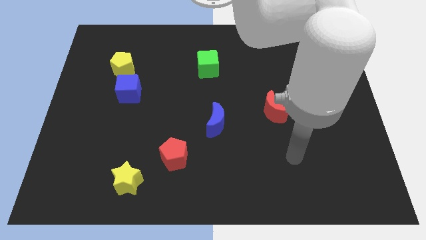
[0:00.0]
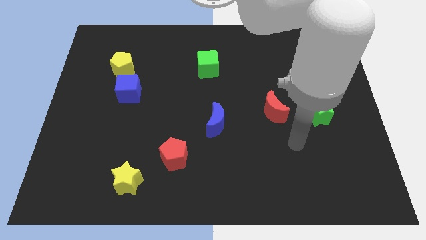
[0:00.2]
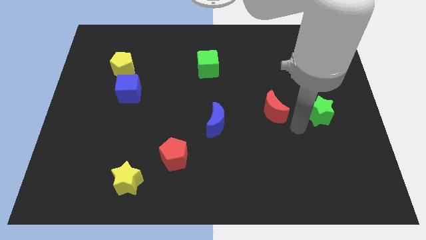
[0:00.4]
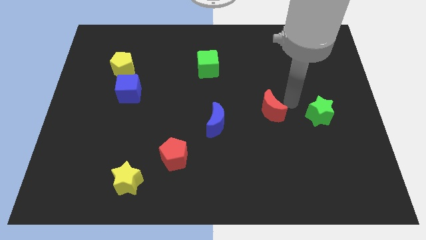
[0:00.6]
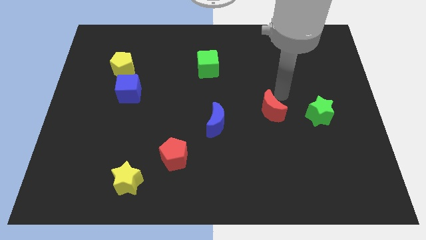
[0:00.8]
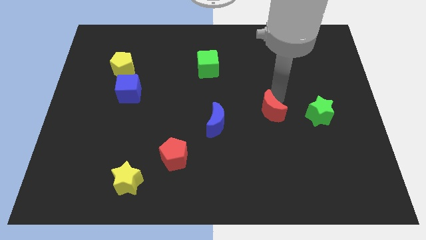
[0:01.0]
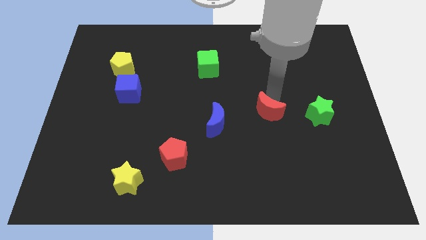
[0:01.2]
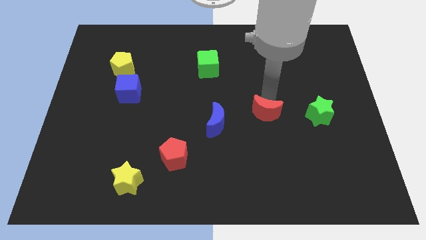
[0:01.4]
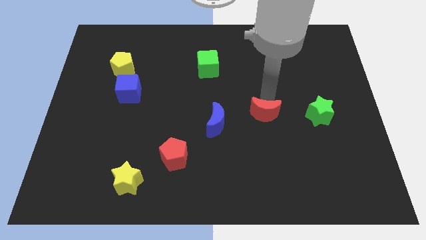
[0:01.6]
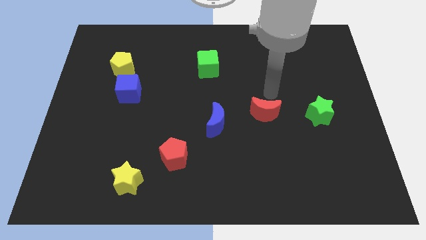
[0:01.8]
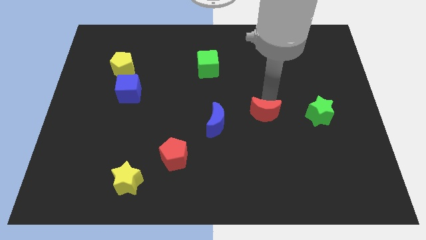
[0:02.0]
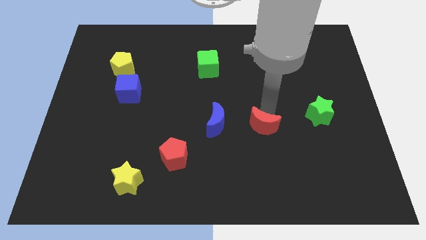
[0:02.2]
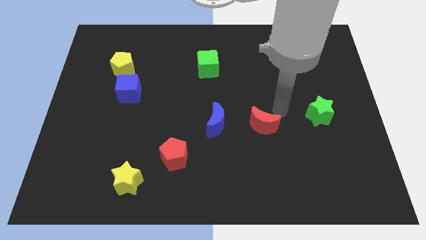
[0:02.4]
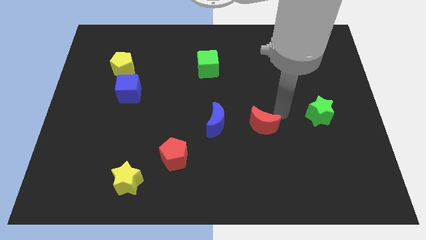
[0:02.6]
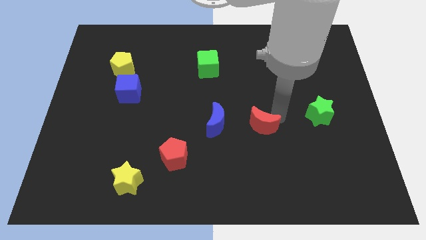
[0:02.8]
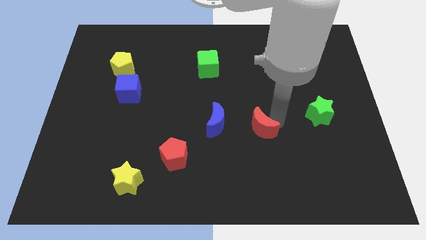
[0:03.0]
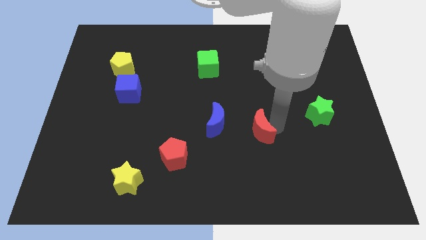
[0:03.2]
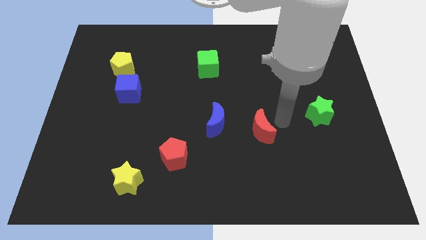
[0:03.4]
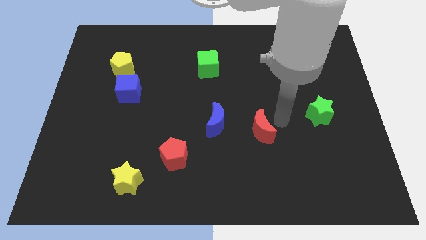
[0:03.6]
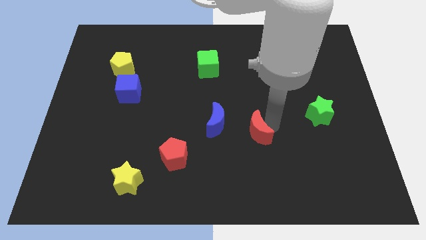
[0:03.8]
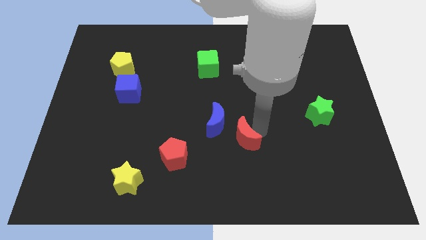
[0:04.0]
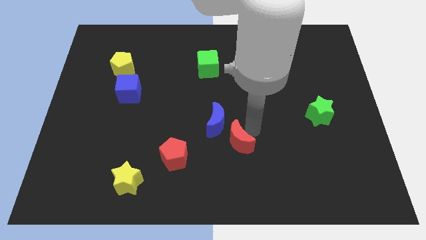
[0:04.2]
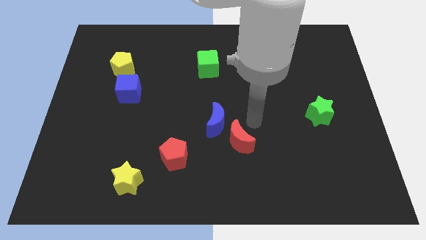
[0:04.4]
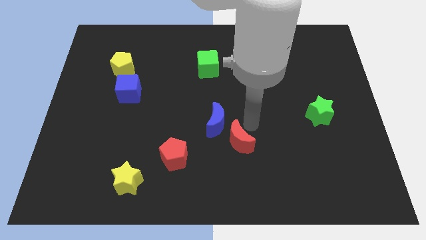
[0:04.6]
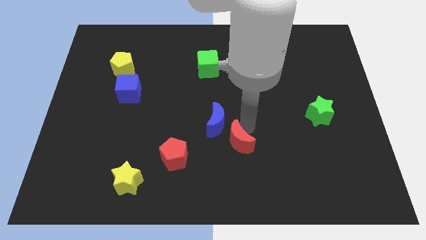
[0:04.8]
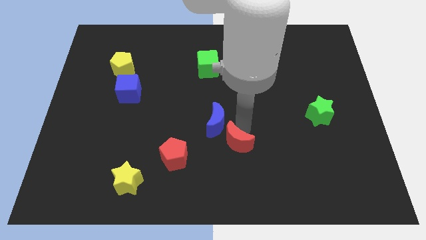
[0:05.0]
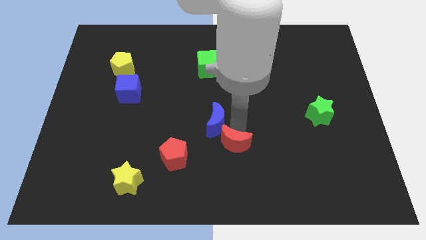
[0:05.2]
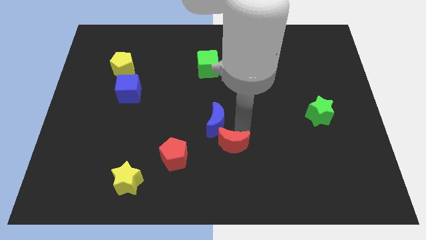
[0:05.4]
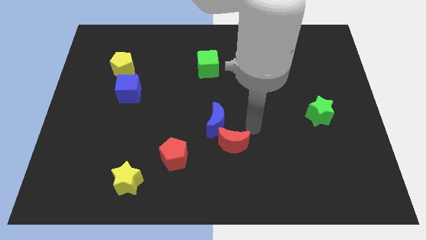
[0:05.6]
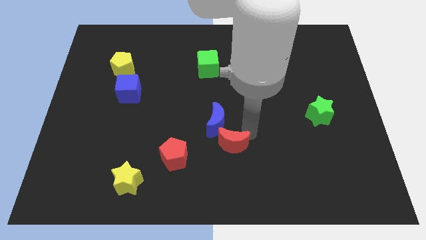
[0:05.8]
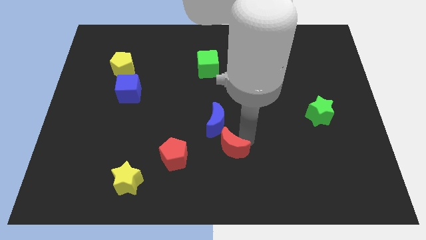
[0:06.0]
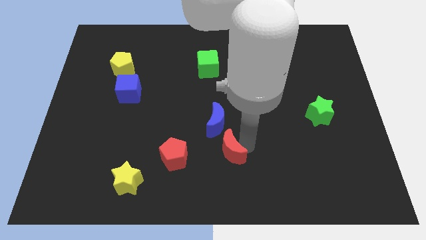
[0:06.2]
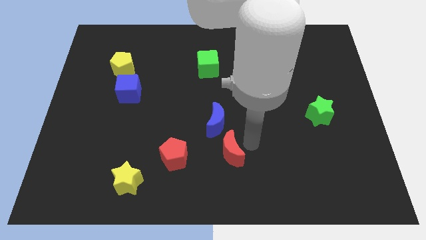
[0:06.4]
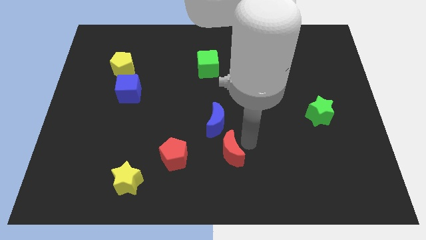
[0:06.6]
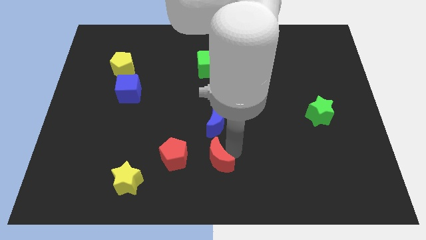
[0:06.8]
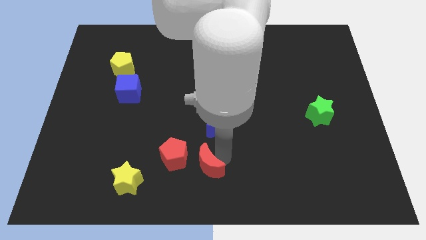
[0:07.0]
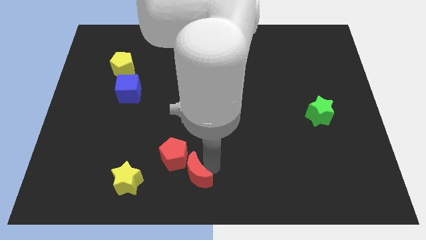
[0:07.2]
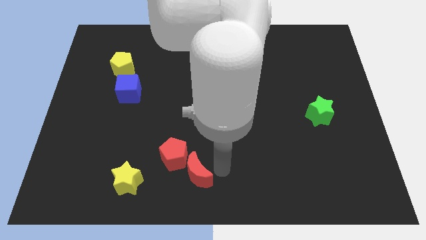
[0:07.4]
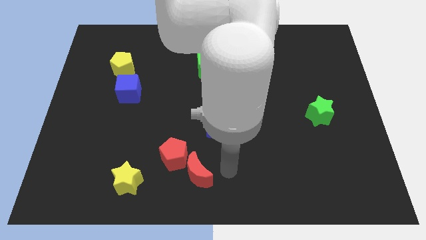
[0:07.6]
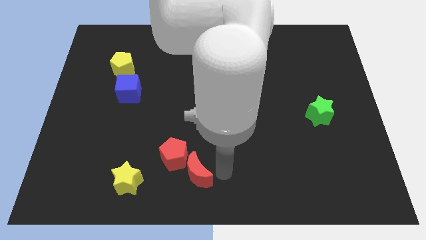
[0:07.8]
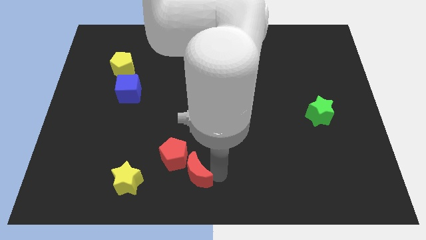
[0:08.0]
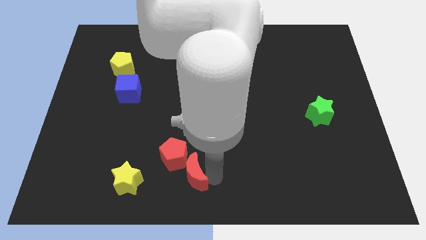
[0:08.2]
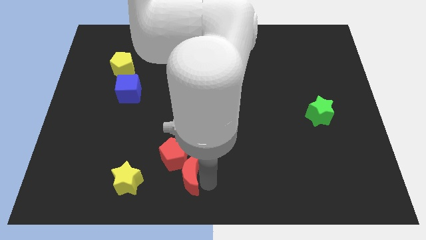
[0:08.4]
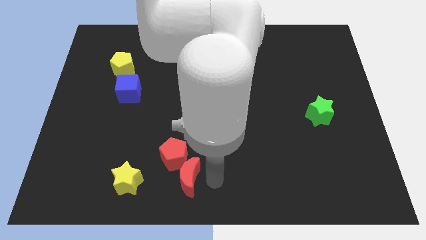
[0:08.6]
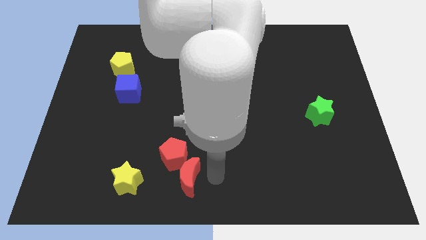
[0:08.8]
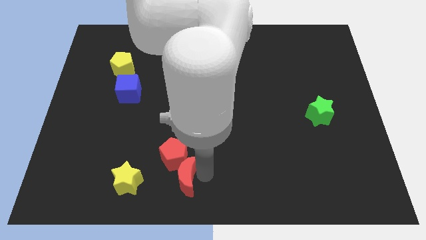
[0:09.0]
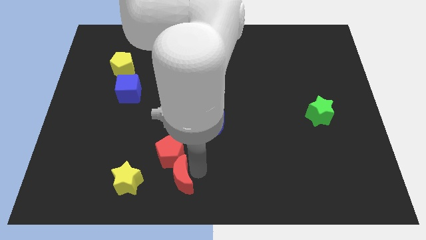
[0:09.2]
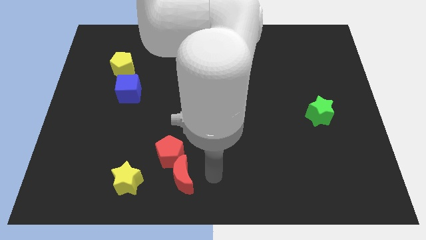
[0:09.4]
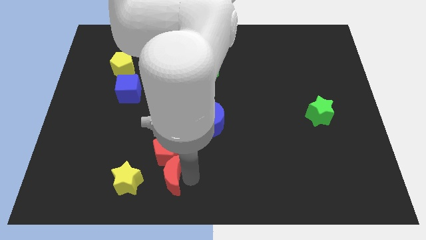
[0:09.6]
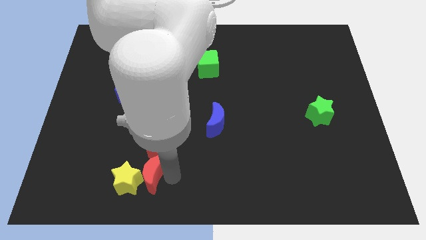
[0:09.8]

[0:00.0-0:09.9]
slide the red moon next to the yellow star

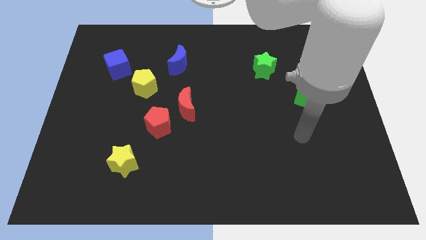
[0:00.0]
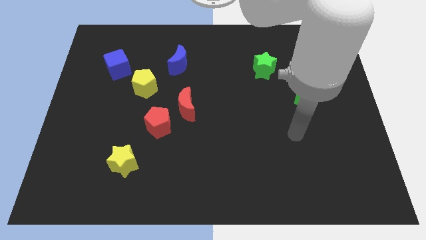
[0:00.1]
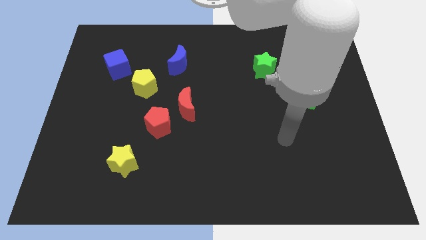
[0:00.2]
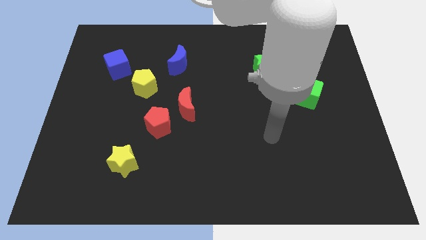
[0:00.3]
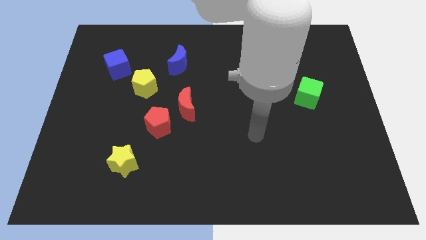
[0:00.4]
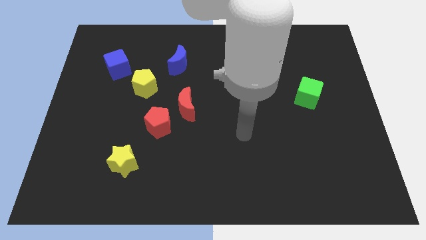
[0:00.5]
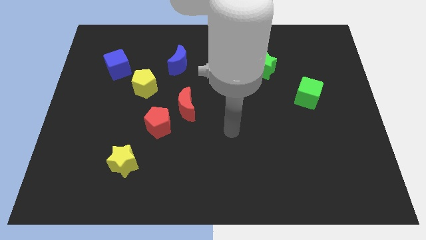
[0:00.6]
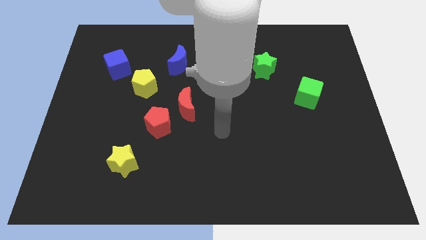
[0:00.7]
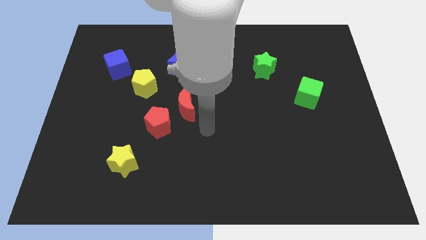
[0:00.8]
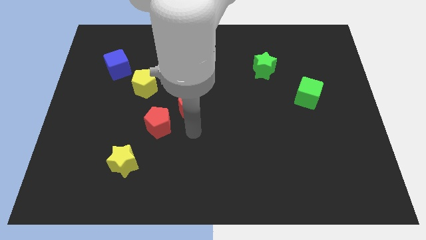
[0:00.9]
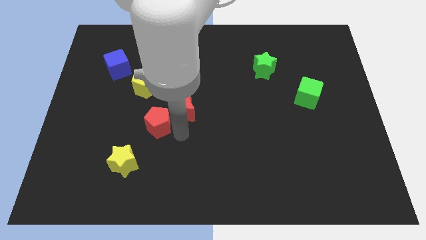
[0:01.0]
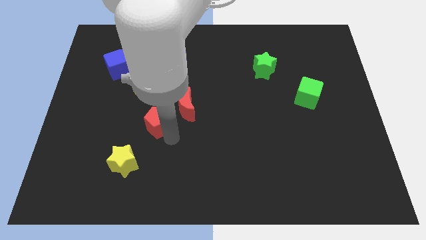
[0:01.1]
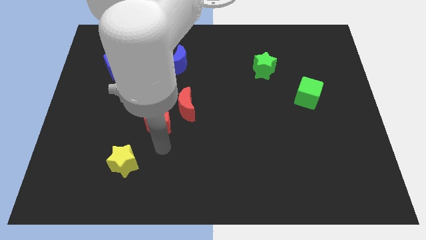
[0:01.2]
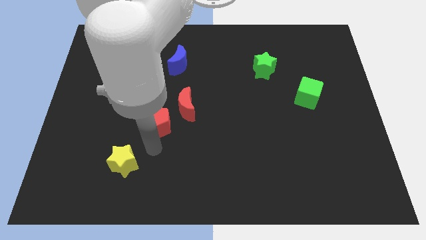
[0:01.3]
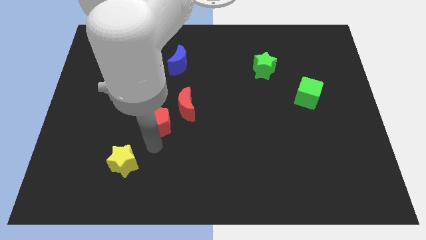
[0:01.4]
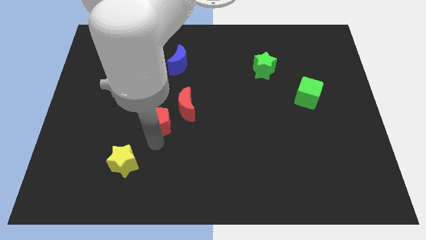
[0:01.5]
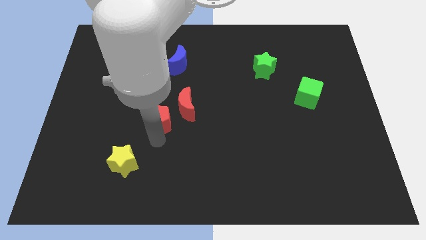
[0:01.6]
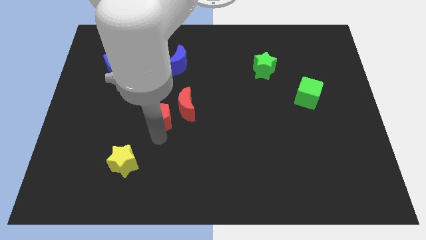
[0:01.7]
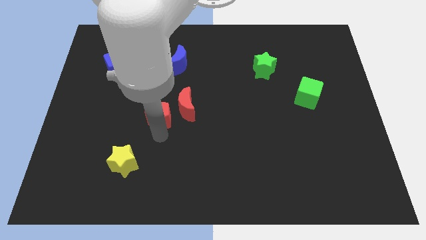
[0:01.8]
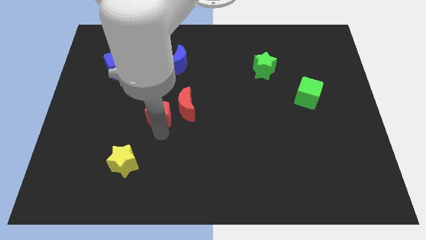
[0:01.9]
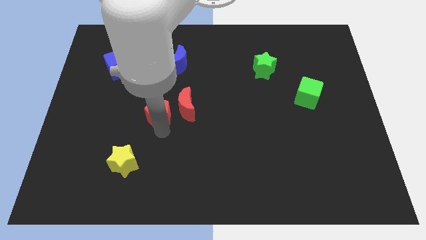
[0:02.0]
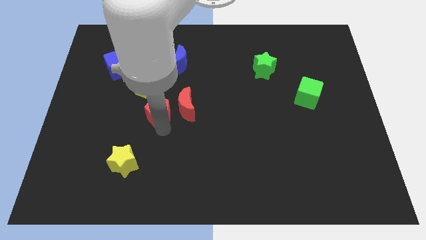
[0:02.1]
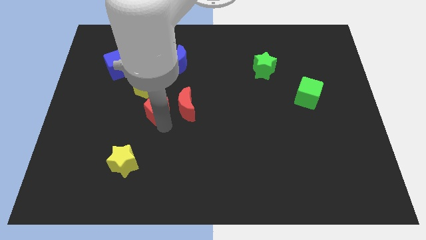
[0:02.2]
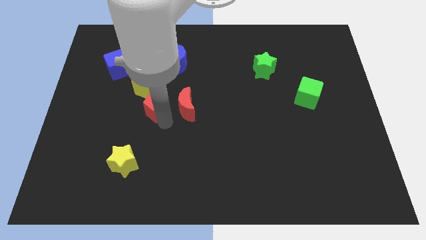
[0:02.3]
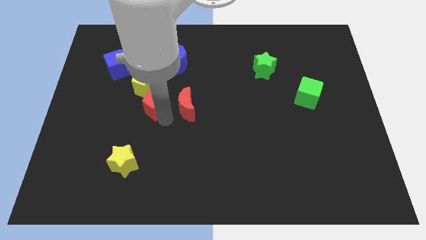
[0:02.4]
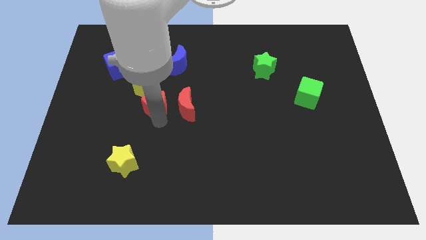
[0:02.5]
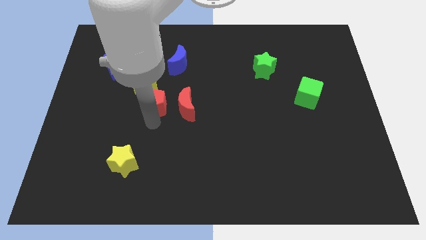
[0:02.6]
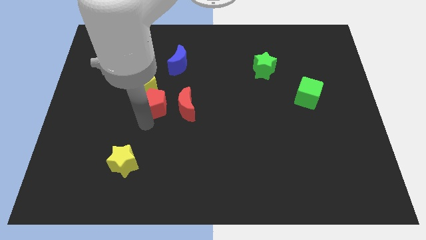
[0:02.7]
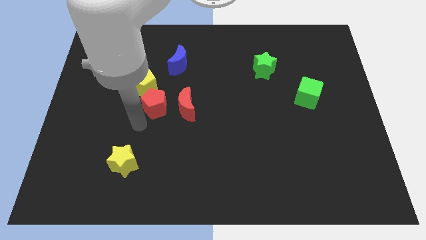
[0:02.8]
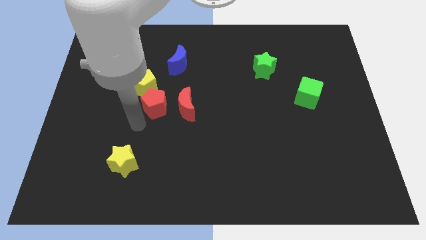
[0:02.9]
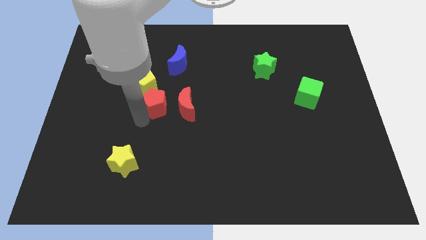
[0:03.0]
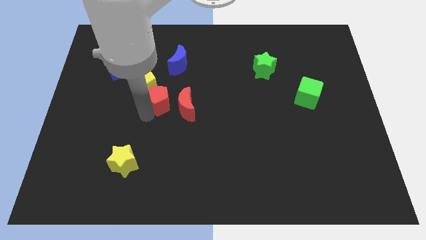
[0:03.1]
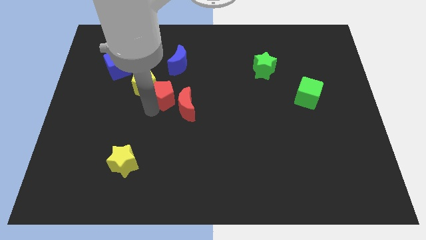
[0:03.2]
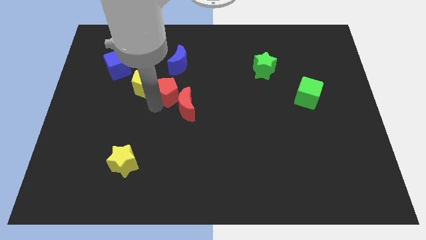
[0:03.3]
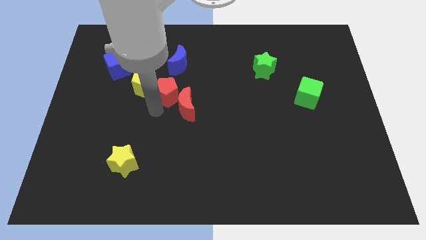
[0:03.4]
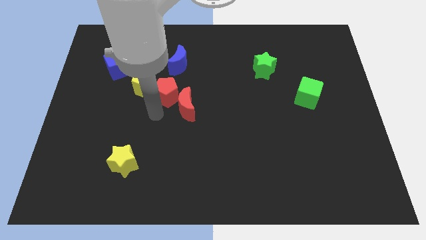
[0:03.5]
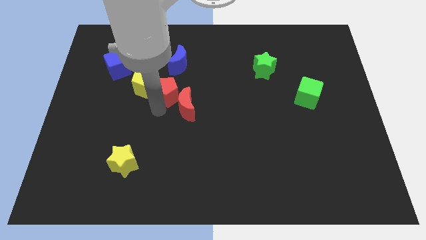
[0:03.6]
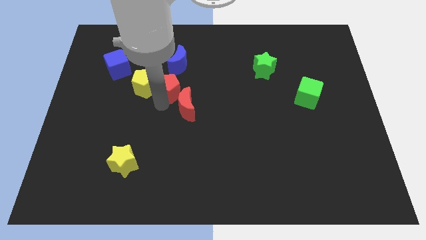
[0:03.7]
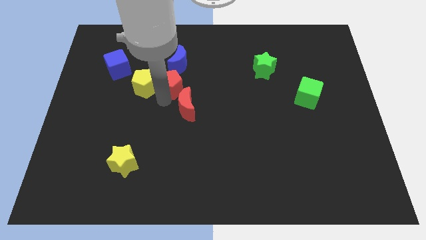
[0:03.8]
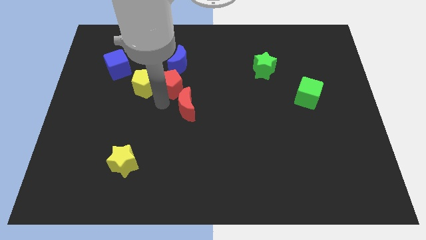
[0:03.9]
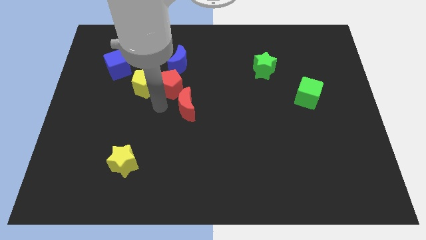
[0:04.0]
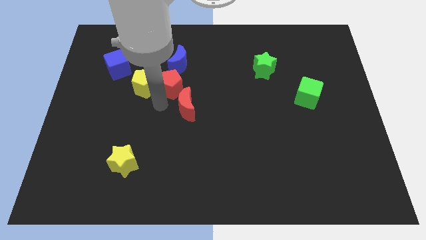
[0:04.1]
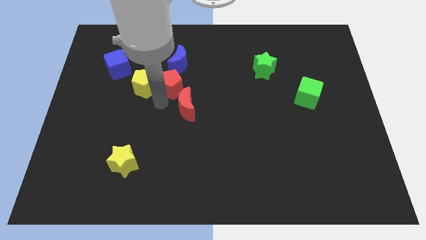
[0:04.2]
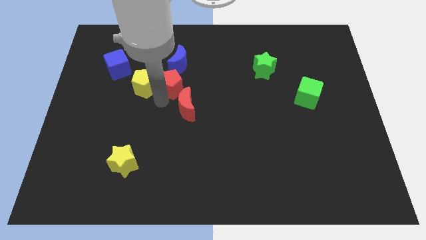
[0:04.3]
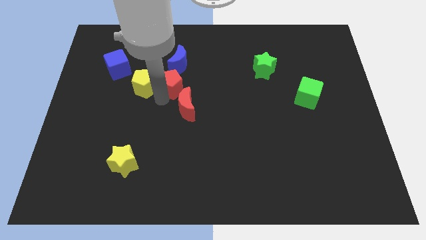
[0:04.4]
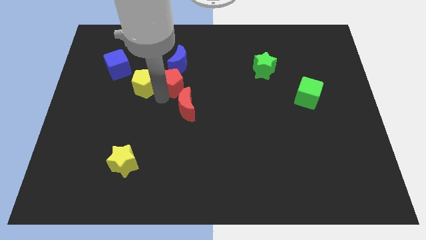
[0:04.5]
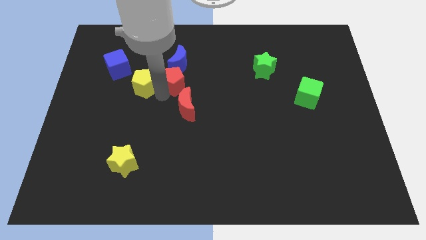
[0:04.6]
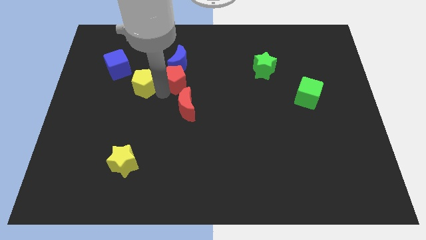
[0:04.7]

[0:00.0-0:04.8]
put the red pentagon towards the blue moon
